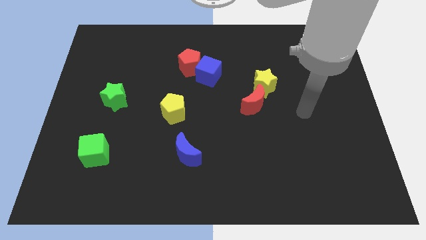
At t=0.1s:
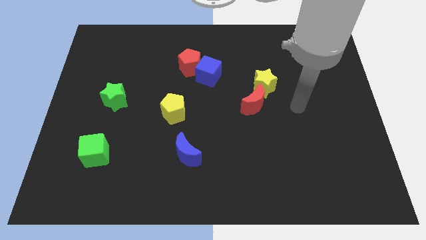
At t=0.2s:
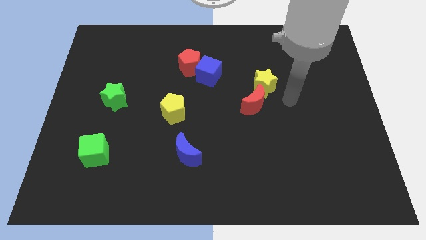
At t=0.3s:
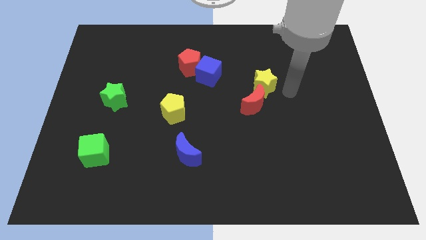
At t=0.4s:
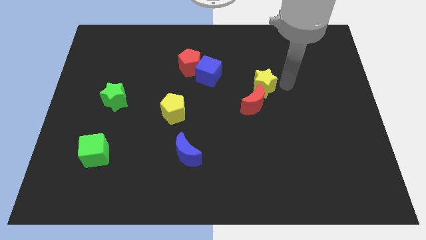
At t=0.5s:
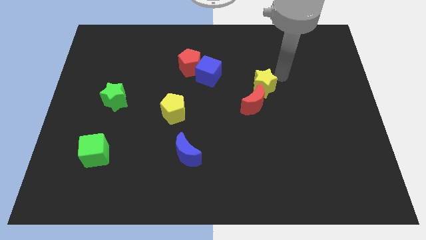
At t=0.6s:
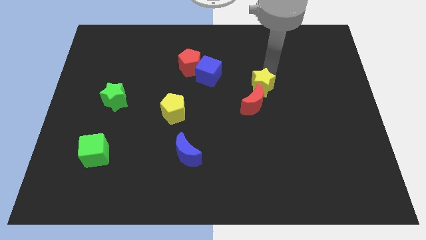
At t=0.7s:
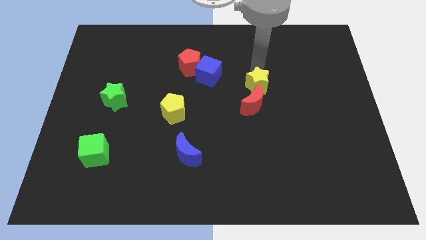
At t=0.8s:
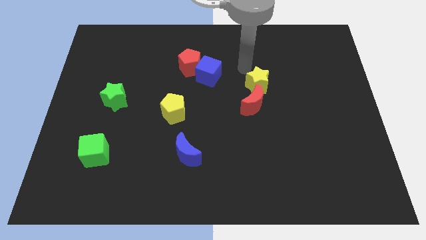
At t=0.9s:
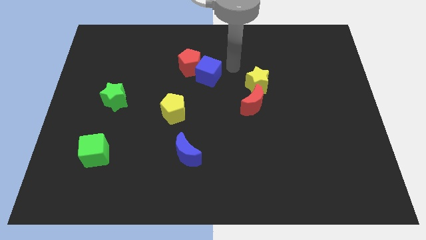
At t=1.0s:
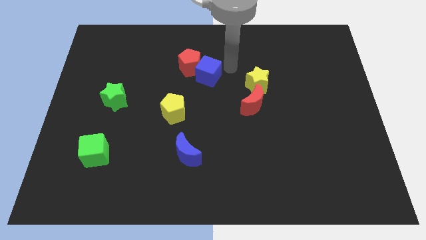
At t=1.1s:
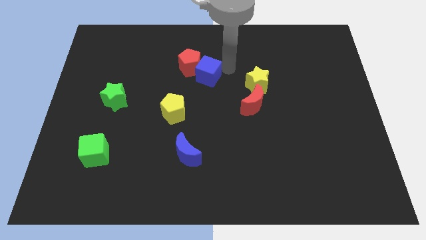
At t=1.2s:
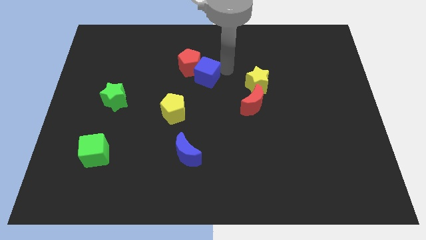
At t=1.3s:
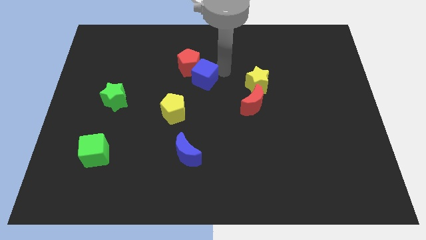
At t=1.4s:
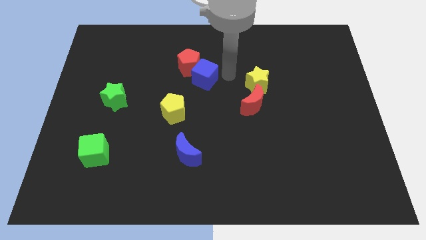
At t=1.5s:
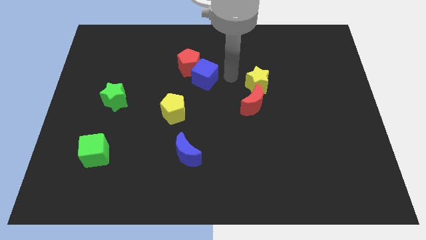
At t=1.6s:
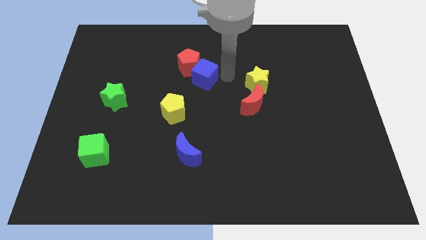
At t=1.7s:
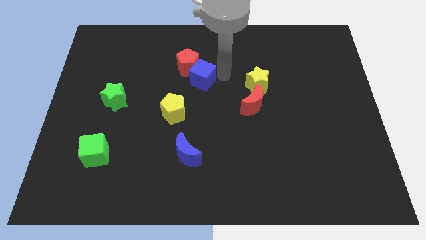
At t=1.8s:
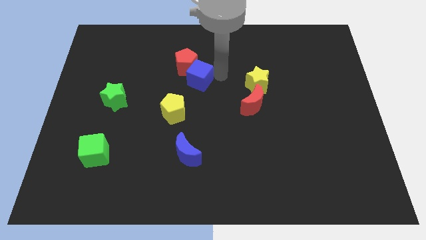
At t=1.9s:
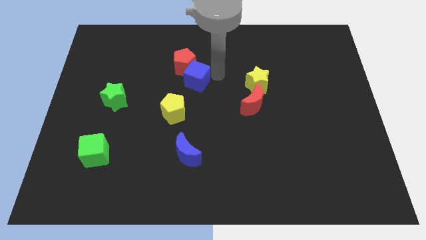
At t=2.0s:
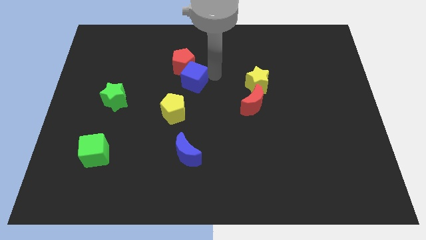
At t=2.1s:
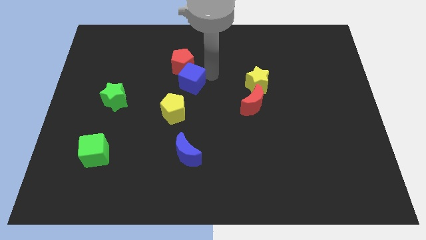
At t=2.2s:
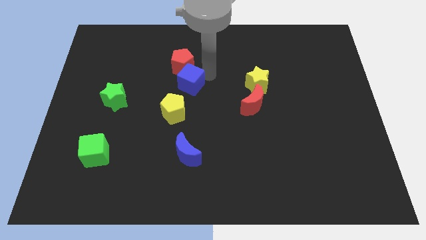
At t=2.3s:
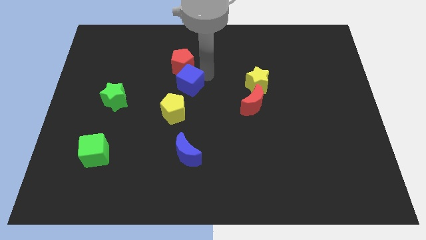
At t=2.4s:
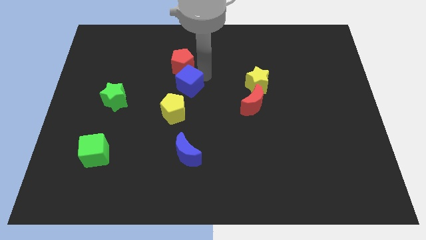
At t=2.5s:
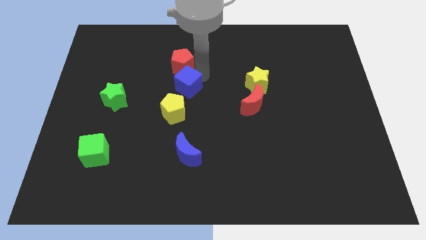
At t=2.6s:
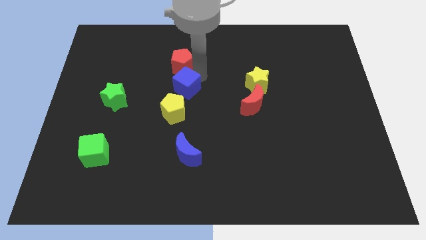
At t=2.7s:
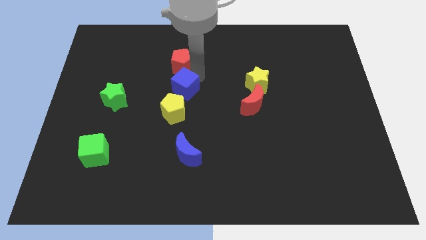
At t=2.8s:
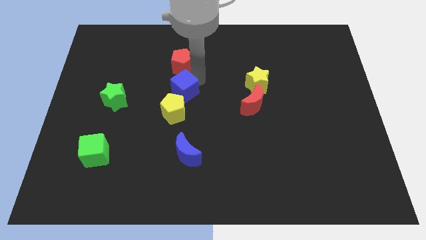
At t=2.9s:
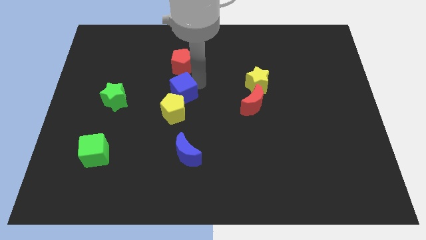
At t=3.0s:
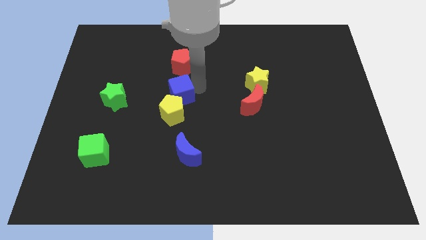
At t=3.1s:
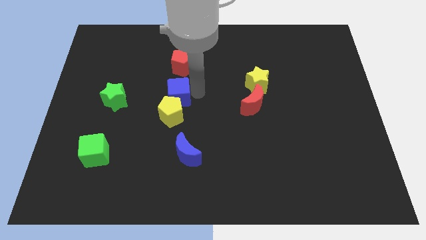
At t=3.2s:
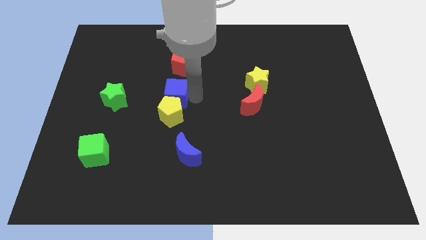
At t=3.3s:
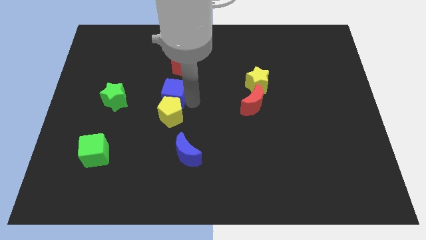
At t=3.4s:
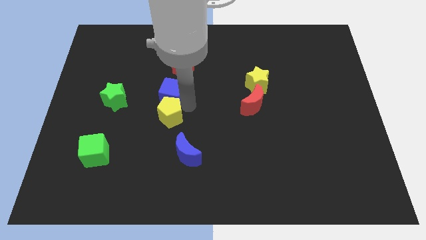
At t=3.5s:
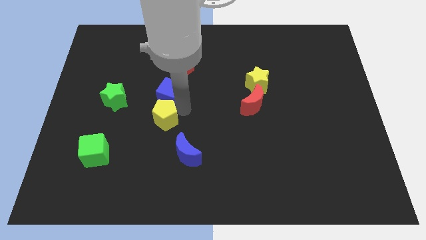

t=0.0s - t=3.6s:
slide the blue cube somewhat left

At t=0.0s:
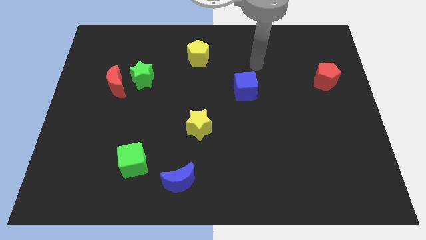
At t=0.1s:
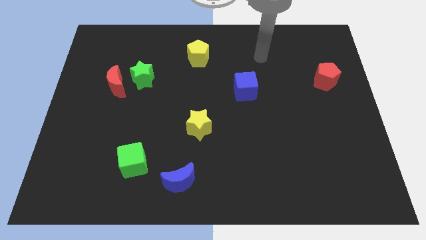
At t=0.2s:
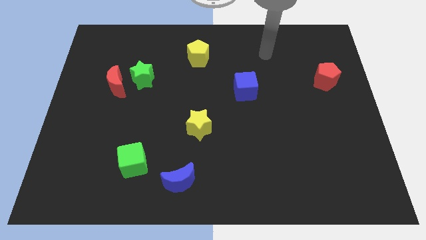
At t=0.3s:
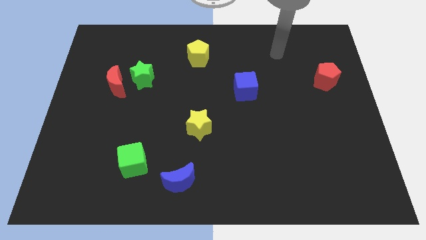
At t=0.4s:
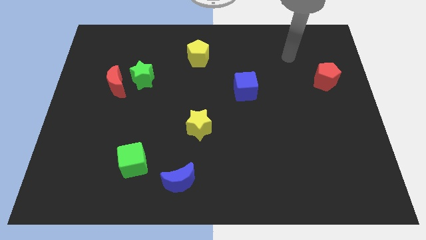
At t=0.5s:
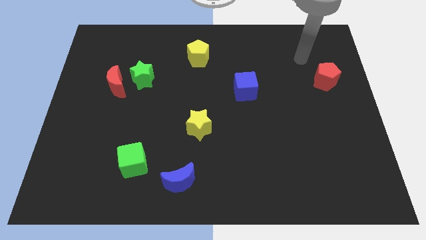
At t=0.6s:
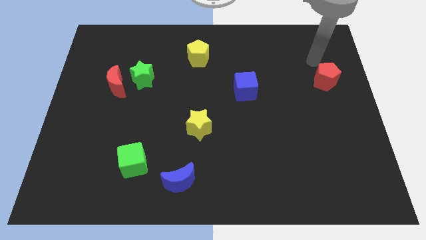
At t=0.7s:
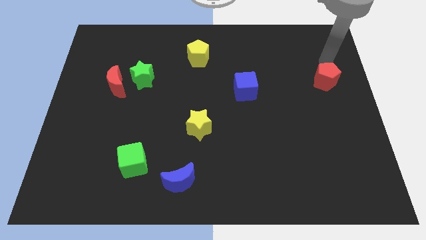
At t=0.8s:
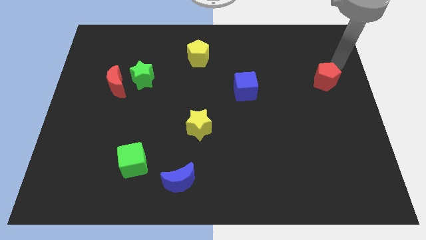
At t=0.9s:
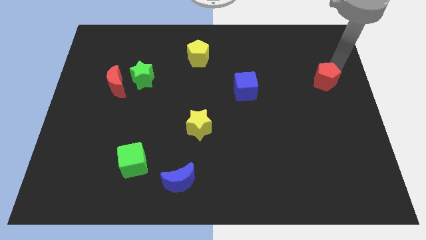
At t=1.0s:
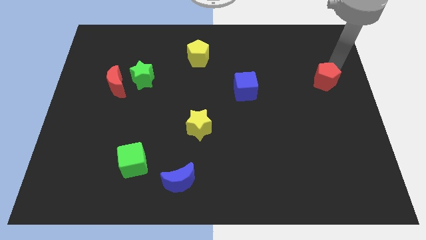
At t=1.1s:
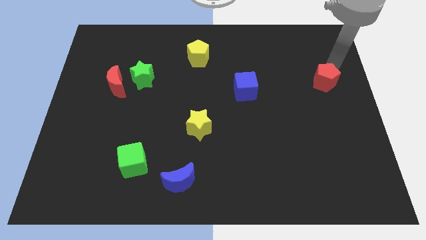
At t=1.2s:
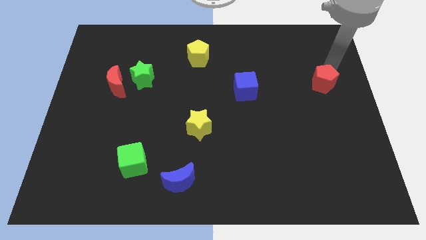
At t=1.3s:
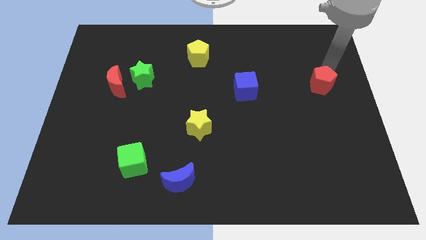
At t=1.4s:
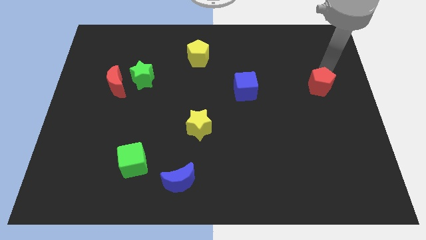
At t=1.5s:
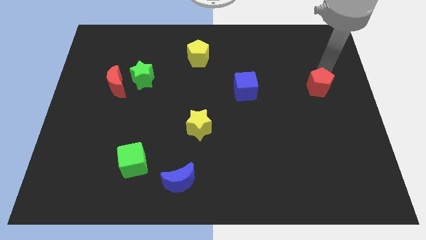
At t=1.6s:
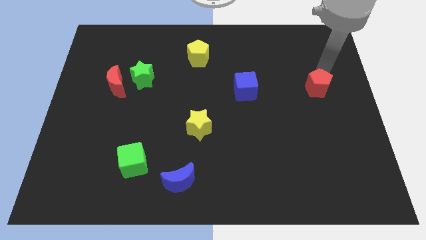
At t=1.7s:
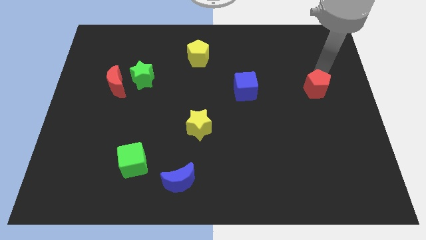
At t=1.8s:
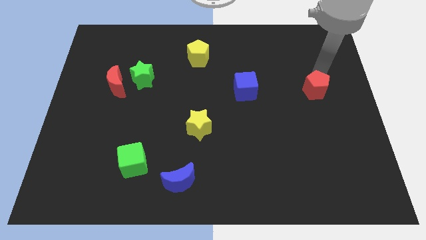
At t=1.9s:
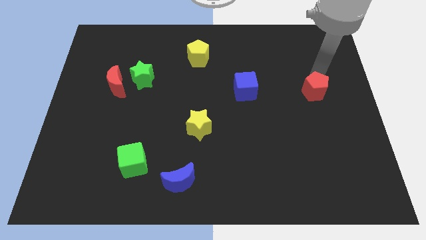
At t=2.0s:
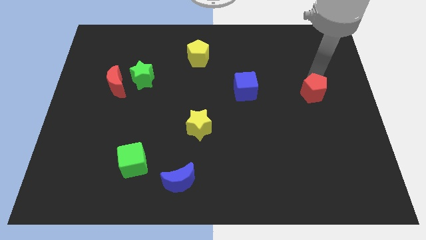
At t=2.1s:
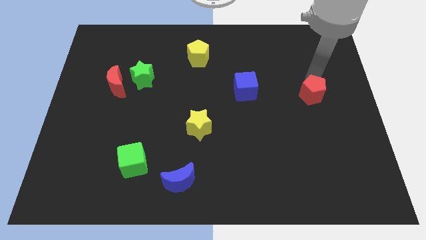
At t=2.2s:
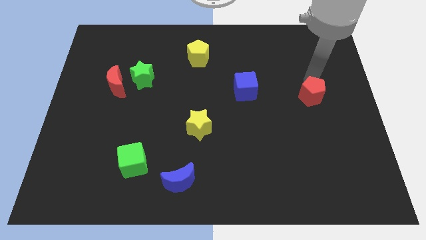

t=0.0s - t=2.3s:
move the red pentagon down and left a little bit

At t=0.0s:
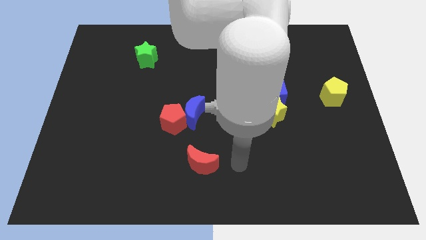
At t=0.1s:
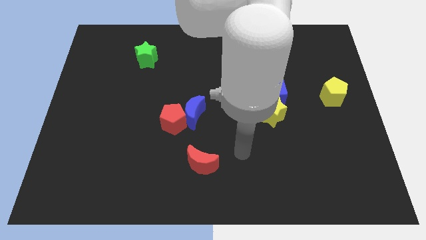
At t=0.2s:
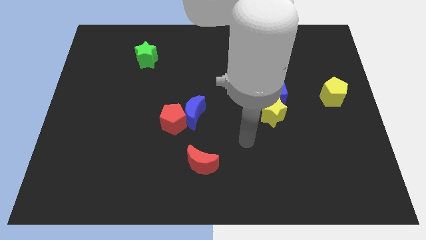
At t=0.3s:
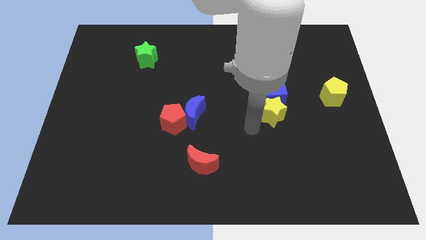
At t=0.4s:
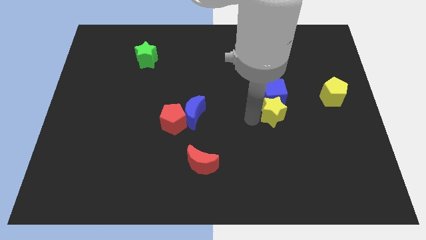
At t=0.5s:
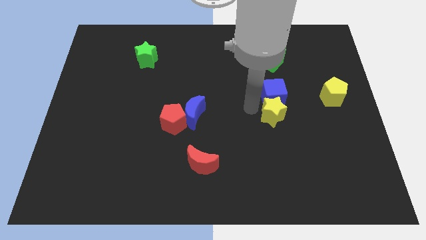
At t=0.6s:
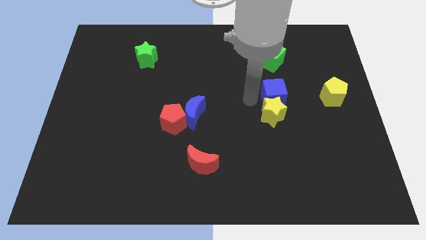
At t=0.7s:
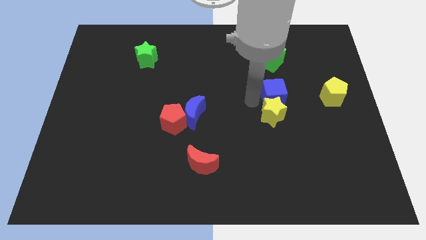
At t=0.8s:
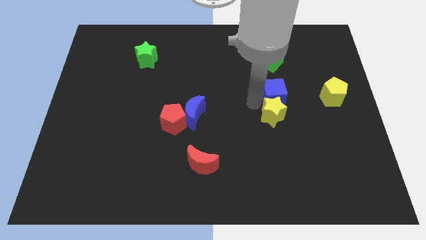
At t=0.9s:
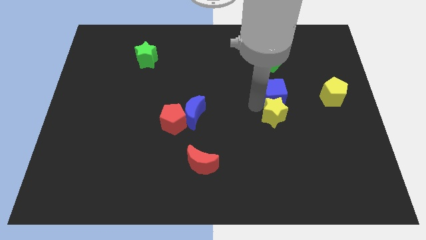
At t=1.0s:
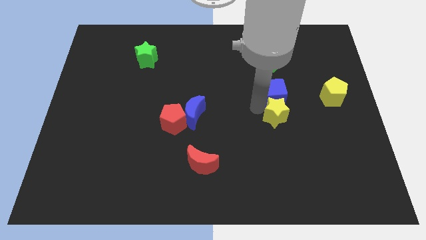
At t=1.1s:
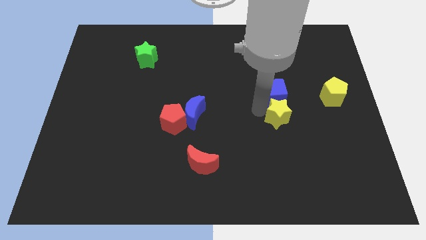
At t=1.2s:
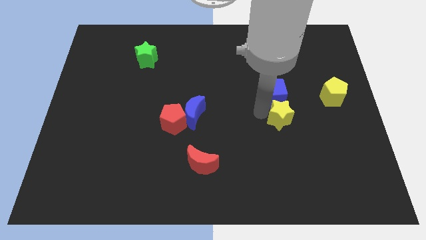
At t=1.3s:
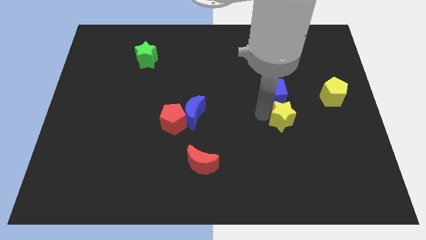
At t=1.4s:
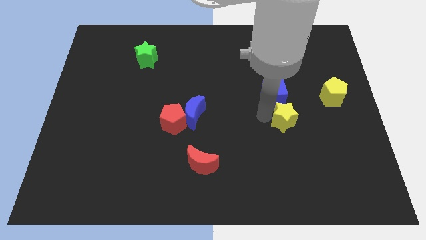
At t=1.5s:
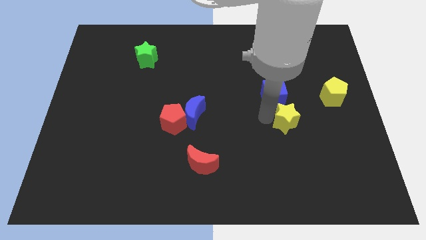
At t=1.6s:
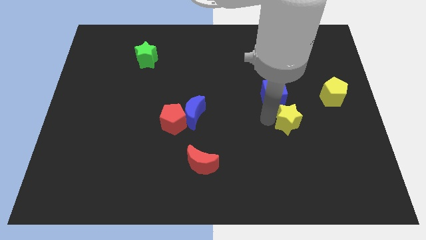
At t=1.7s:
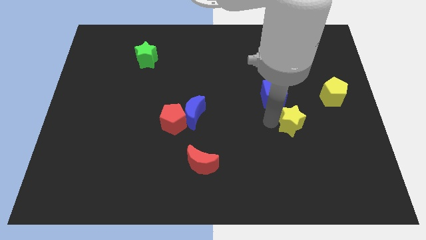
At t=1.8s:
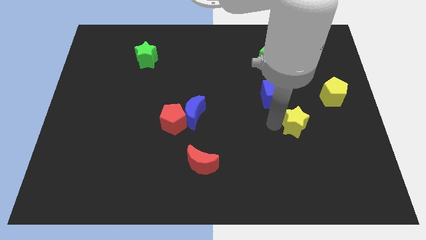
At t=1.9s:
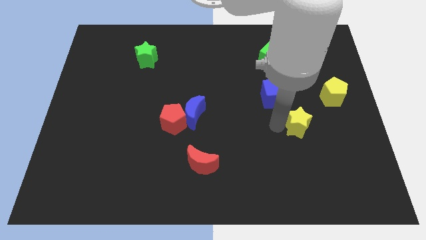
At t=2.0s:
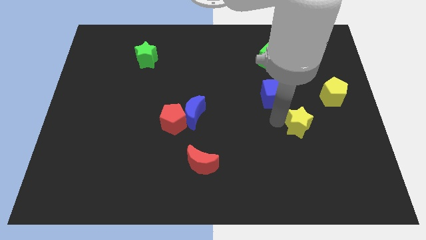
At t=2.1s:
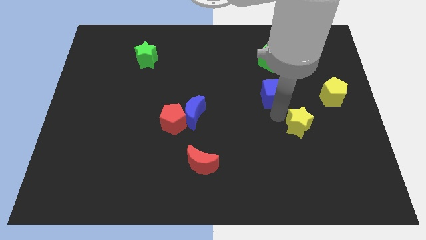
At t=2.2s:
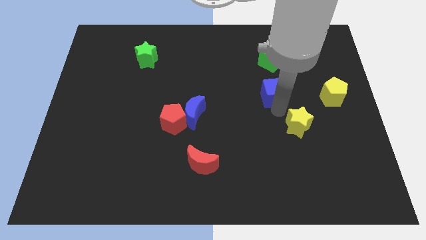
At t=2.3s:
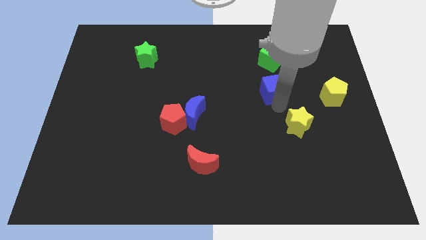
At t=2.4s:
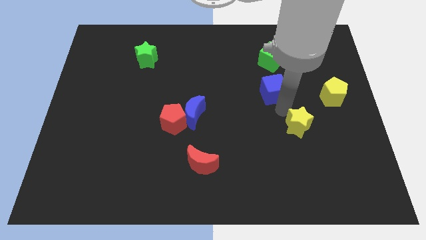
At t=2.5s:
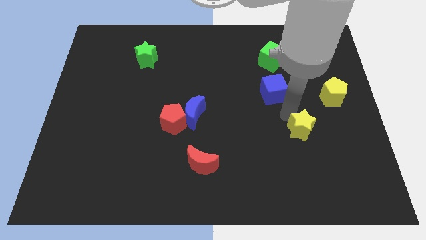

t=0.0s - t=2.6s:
slightly slide the yellow star downwards and right diagonally
